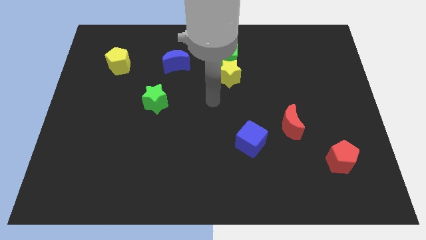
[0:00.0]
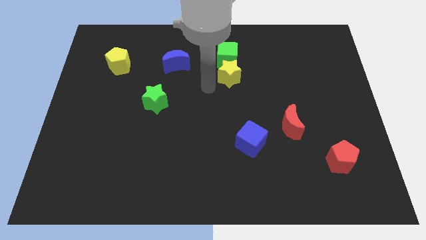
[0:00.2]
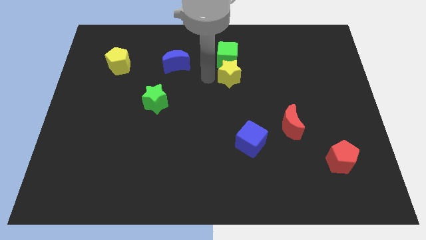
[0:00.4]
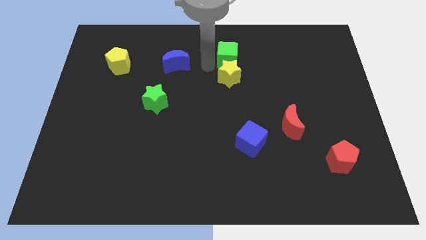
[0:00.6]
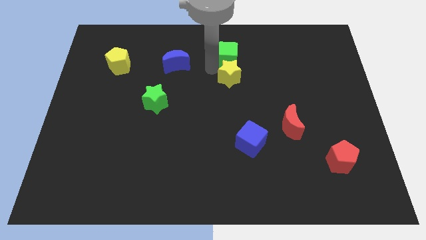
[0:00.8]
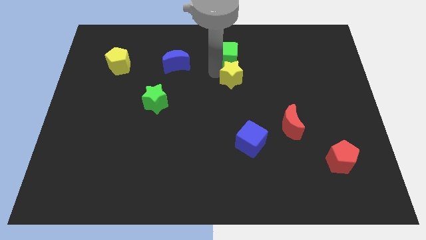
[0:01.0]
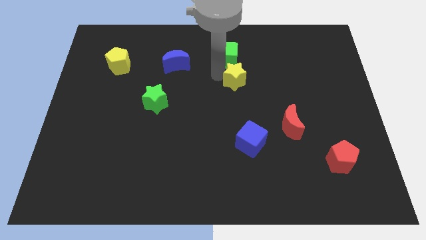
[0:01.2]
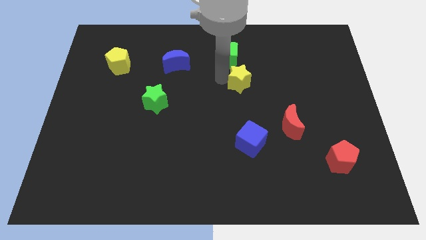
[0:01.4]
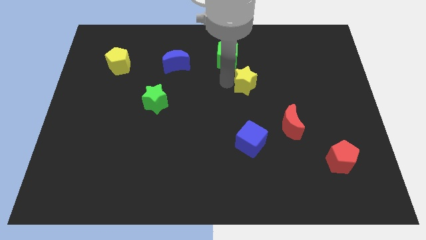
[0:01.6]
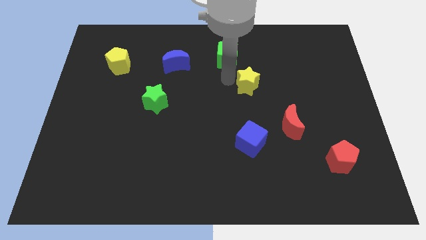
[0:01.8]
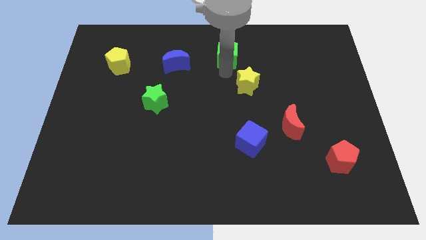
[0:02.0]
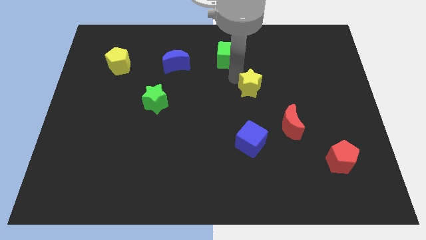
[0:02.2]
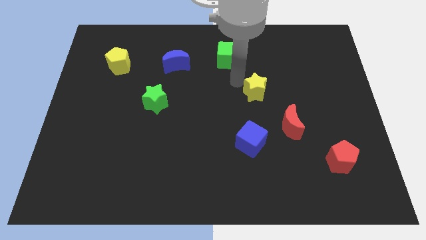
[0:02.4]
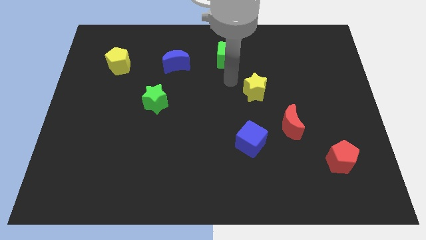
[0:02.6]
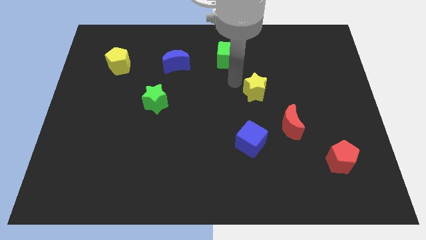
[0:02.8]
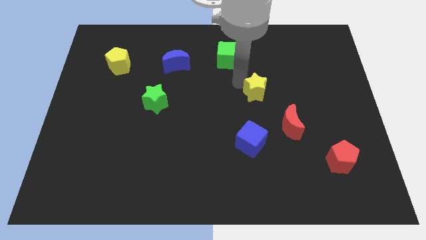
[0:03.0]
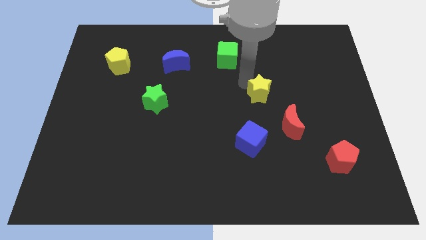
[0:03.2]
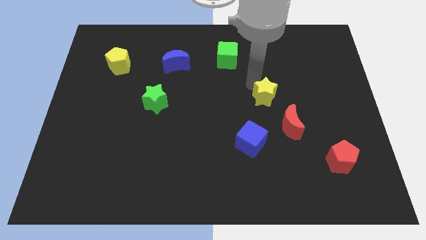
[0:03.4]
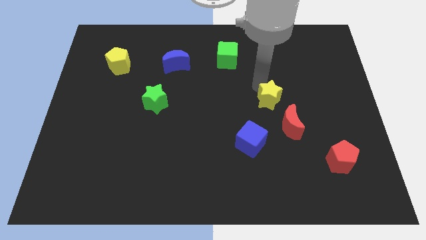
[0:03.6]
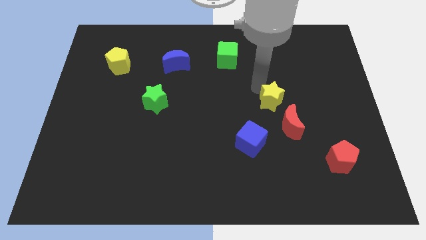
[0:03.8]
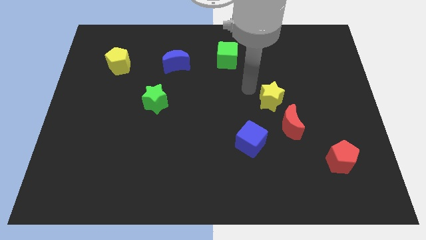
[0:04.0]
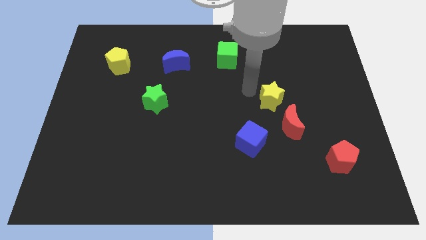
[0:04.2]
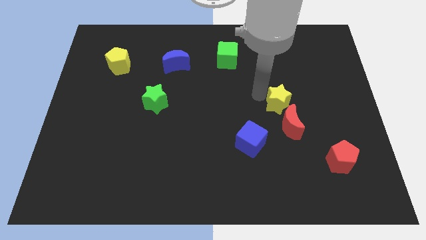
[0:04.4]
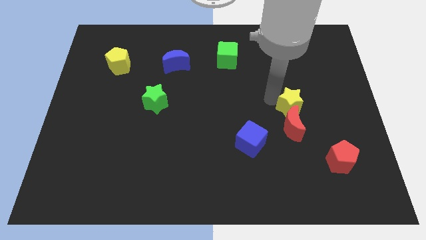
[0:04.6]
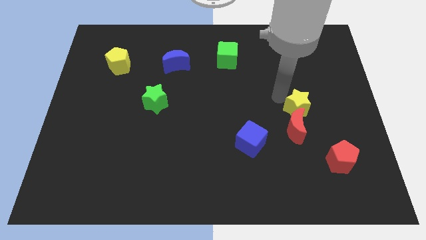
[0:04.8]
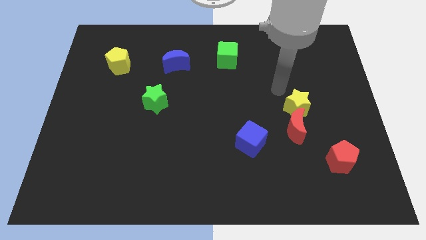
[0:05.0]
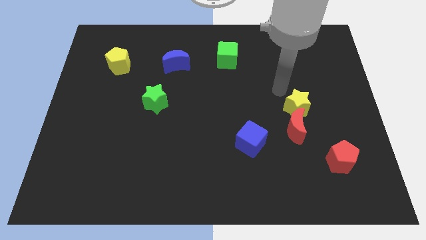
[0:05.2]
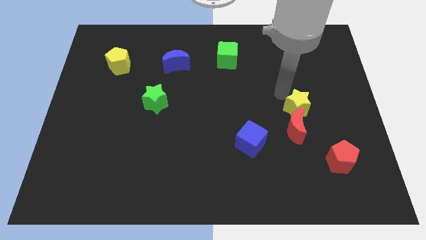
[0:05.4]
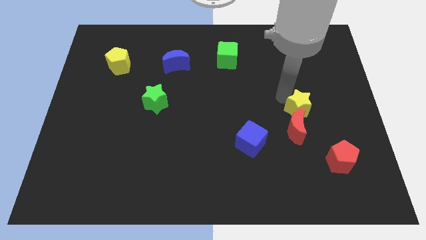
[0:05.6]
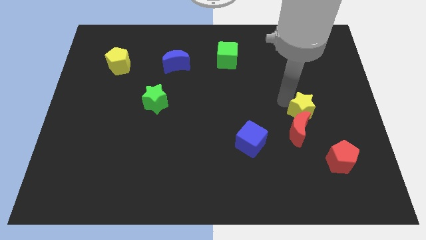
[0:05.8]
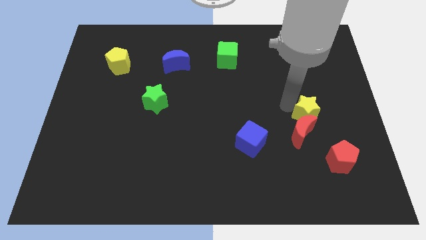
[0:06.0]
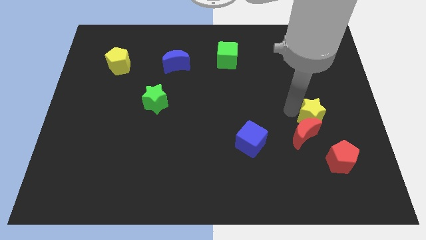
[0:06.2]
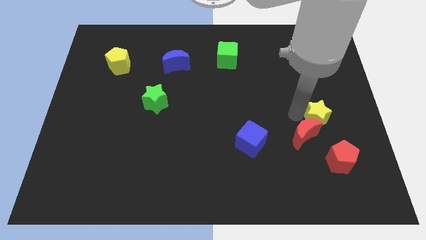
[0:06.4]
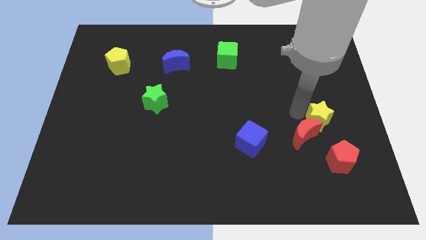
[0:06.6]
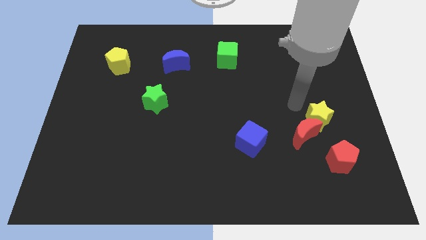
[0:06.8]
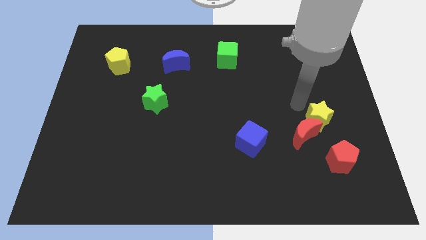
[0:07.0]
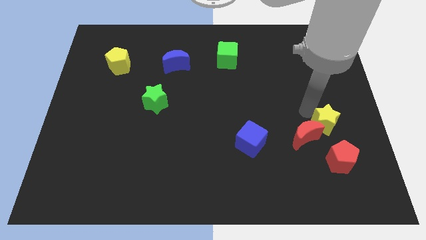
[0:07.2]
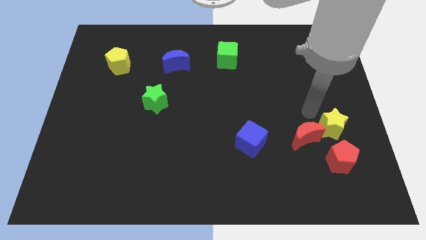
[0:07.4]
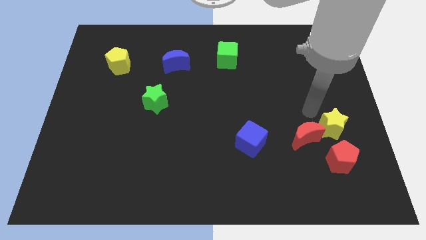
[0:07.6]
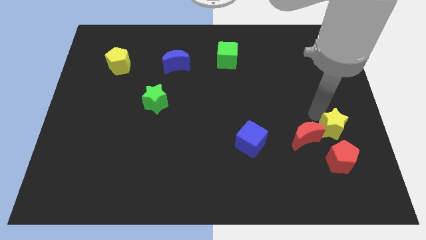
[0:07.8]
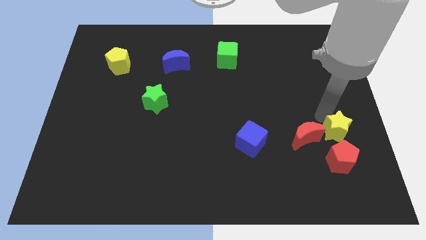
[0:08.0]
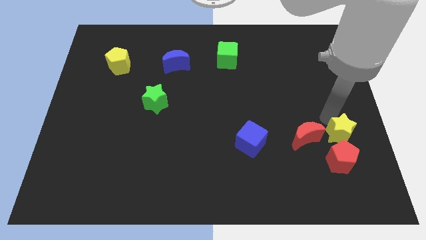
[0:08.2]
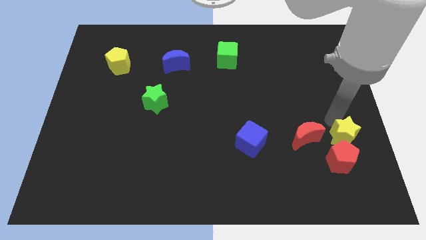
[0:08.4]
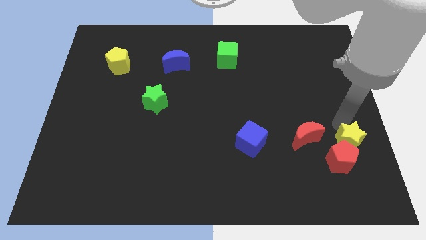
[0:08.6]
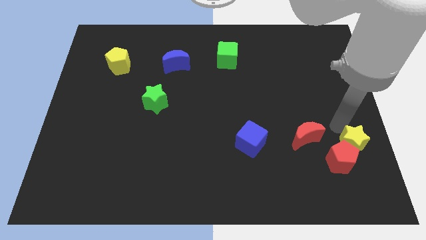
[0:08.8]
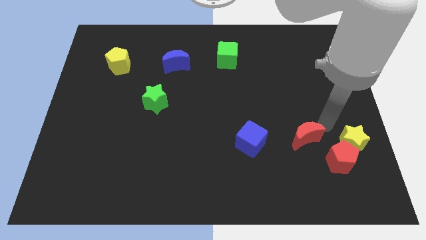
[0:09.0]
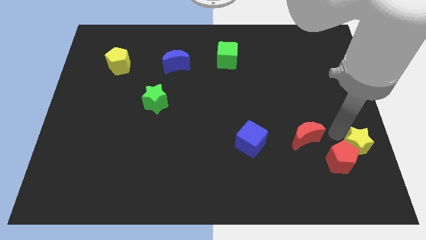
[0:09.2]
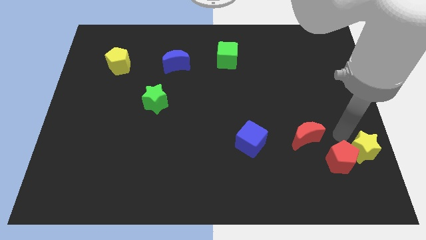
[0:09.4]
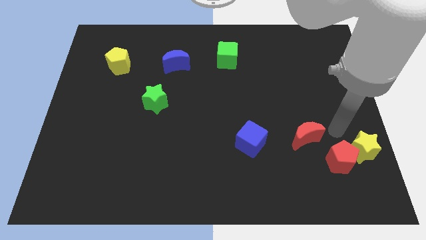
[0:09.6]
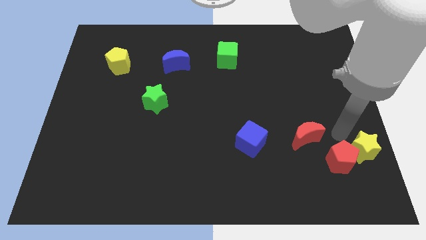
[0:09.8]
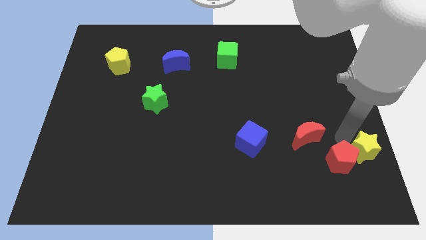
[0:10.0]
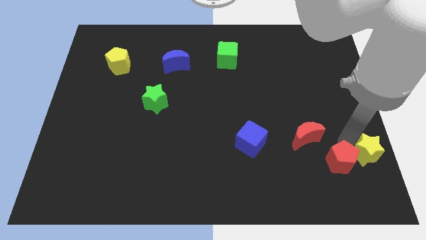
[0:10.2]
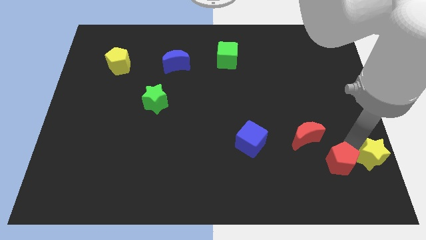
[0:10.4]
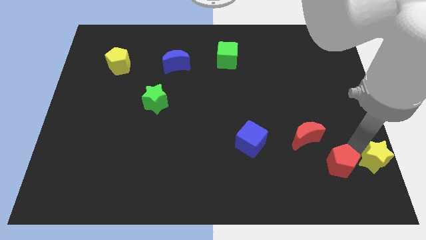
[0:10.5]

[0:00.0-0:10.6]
move the yellow star to the bottom right of the board

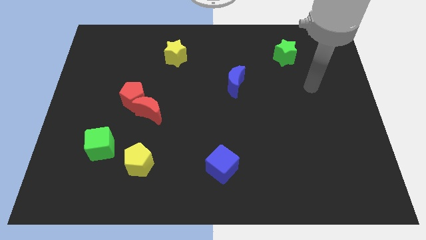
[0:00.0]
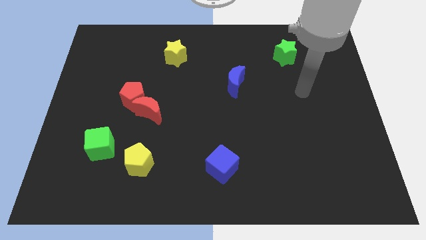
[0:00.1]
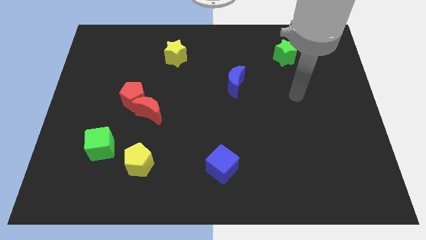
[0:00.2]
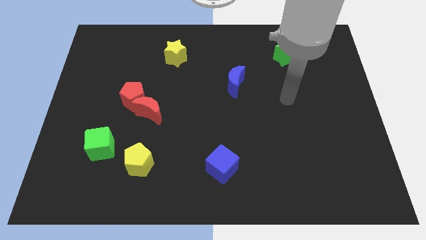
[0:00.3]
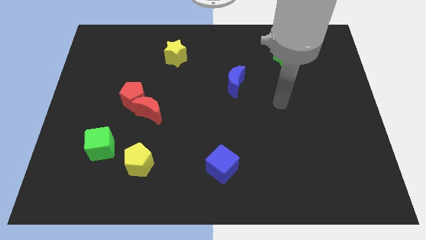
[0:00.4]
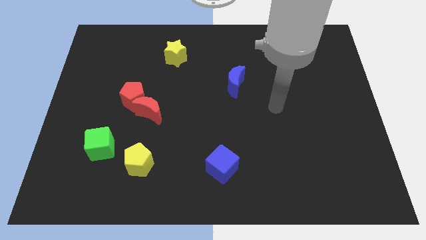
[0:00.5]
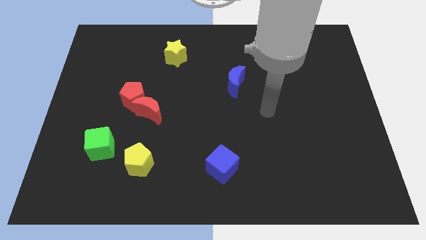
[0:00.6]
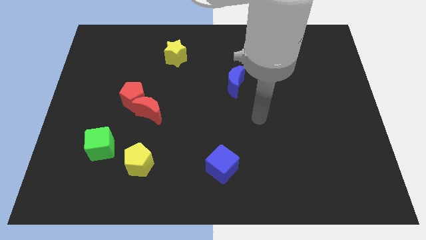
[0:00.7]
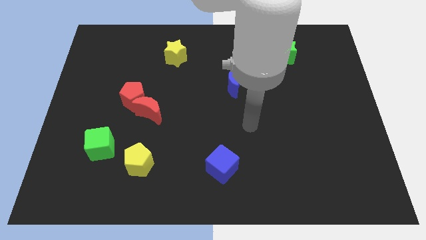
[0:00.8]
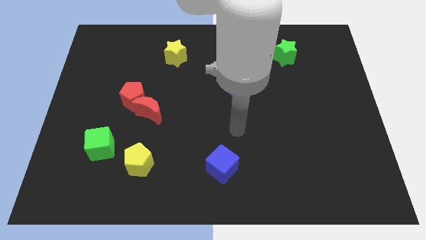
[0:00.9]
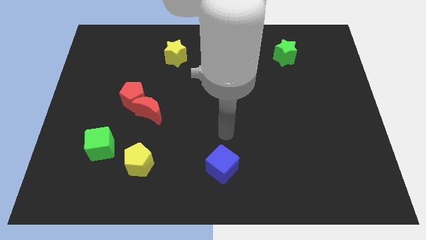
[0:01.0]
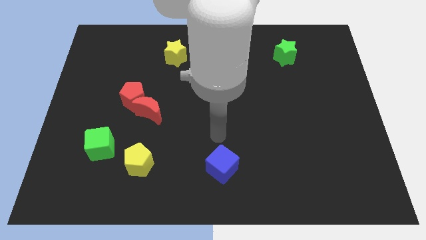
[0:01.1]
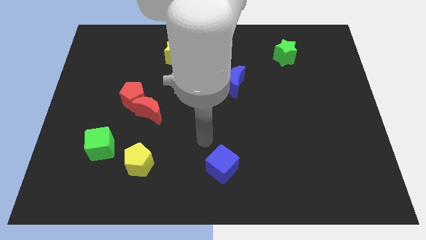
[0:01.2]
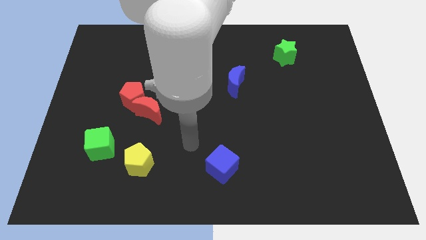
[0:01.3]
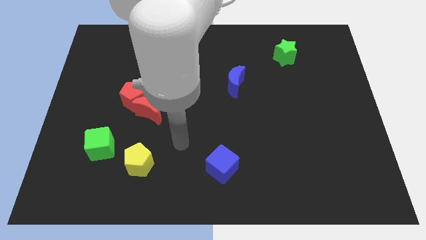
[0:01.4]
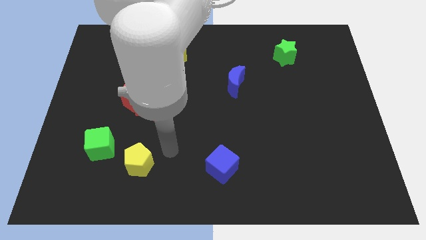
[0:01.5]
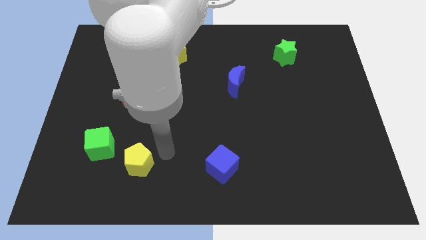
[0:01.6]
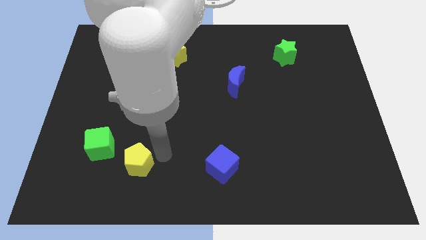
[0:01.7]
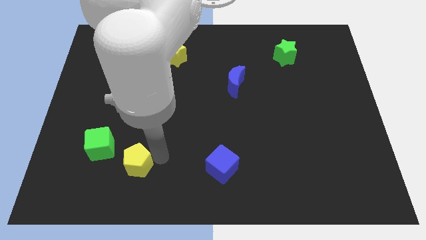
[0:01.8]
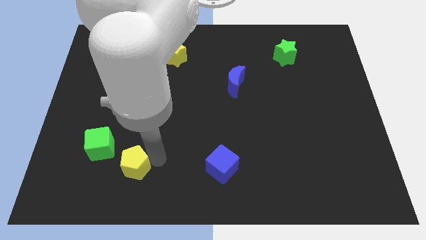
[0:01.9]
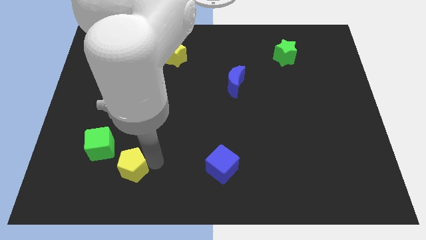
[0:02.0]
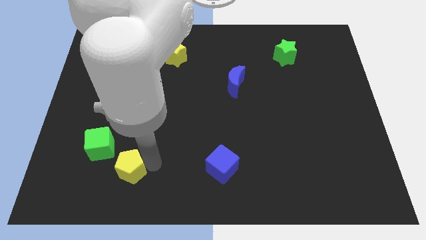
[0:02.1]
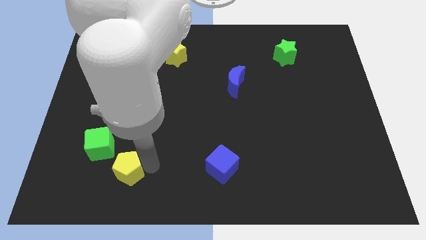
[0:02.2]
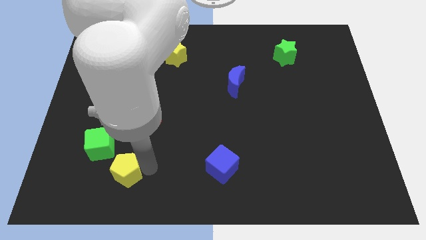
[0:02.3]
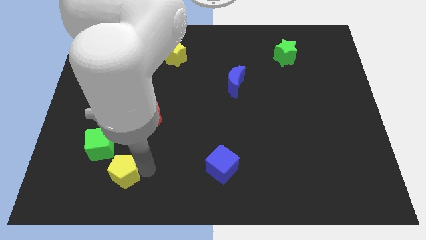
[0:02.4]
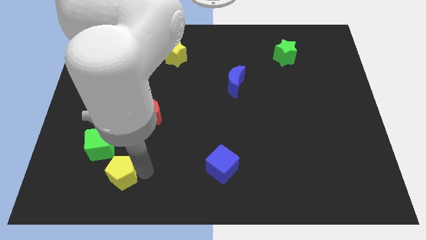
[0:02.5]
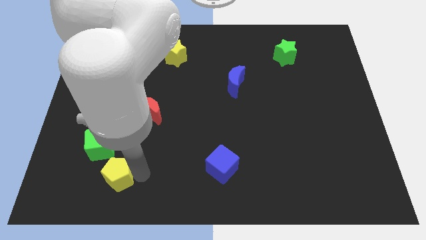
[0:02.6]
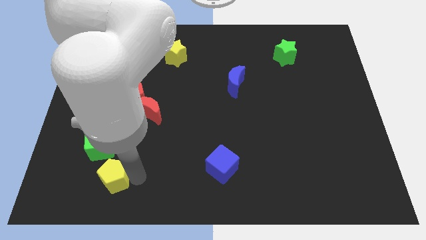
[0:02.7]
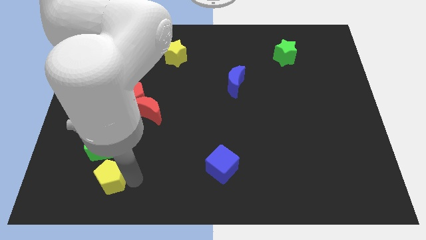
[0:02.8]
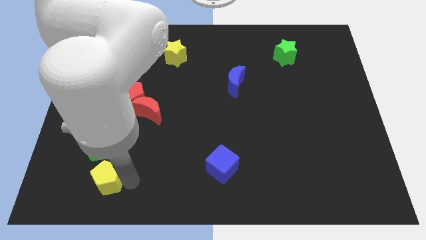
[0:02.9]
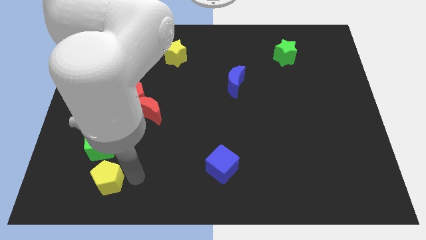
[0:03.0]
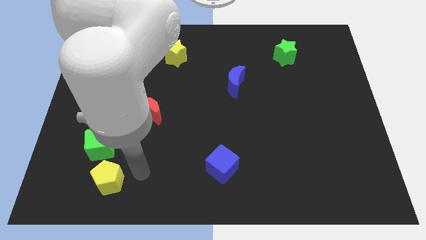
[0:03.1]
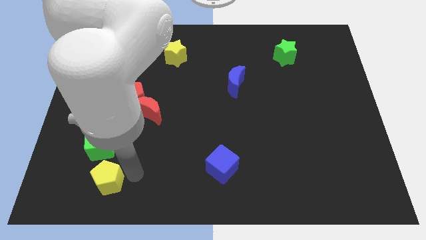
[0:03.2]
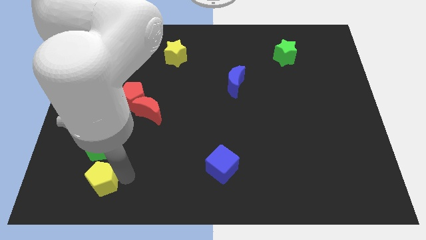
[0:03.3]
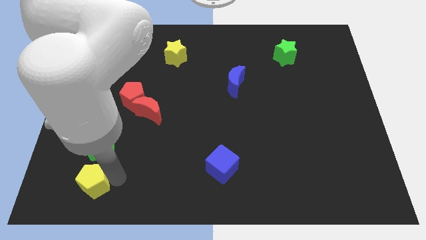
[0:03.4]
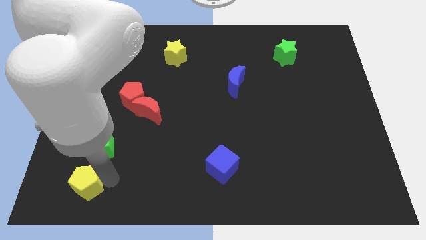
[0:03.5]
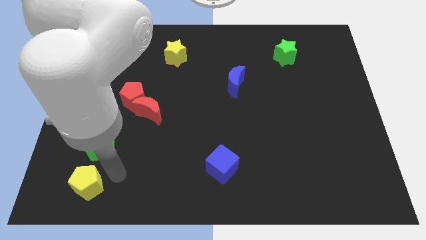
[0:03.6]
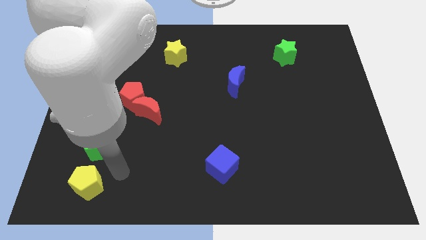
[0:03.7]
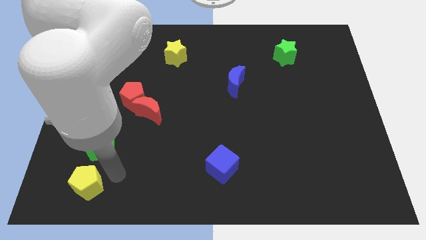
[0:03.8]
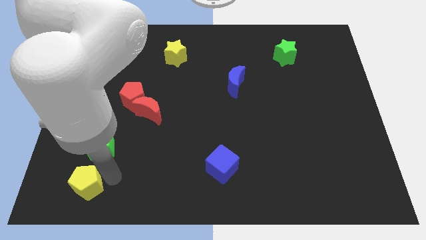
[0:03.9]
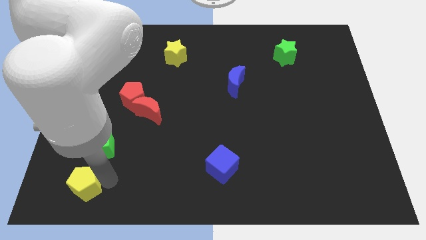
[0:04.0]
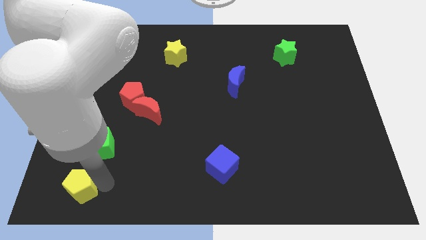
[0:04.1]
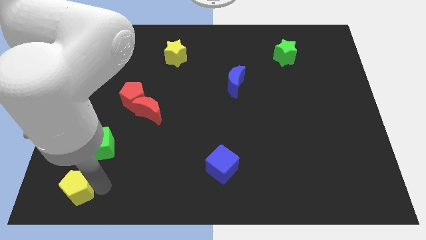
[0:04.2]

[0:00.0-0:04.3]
slide the yellow pentagon to the bottom left
